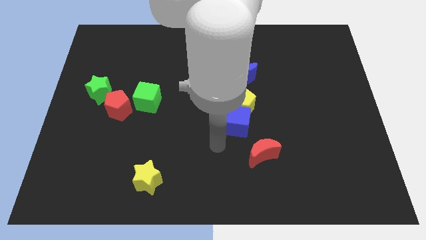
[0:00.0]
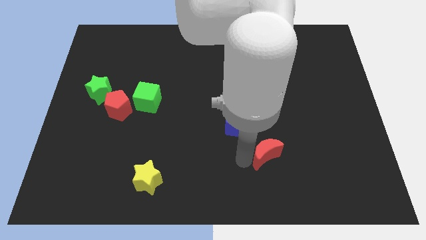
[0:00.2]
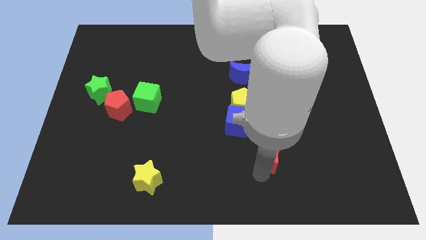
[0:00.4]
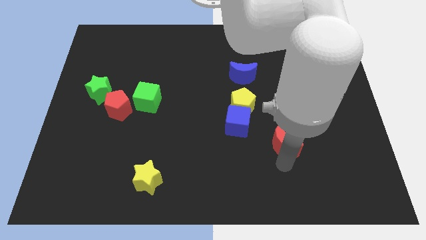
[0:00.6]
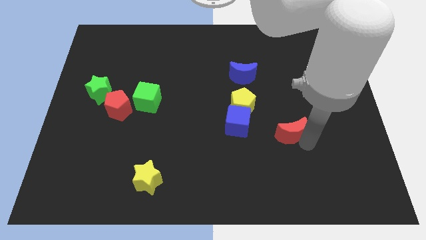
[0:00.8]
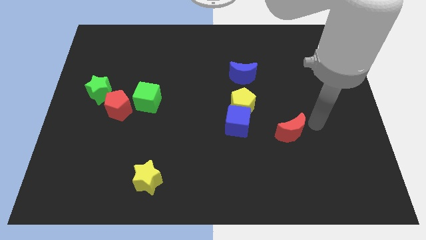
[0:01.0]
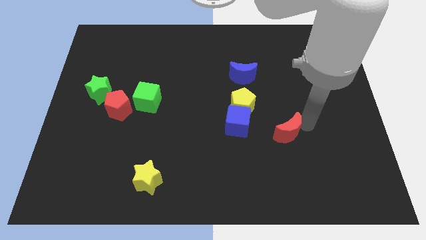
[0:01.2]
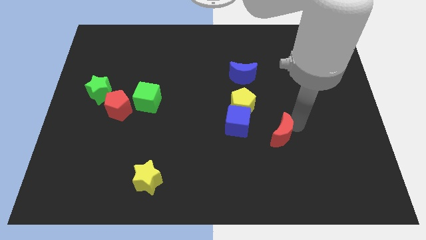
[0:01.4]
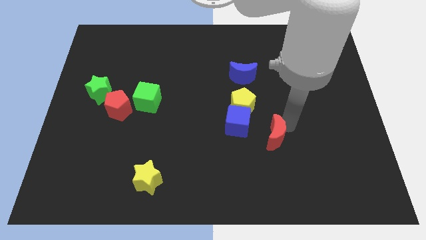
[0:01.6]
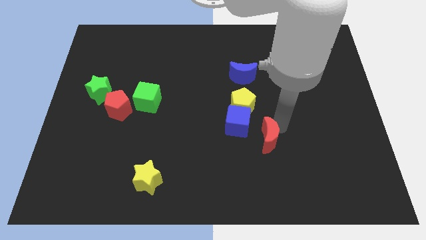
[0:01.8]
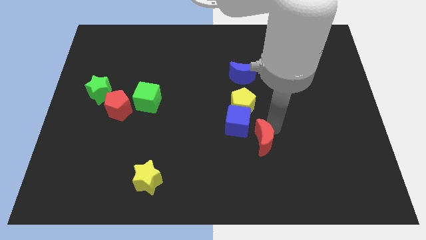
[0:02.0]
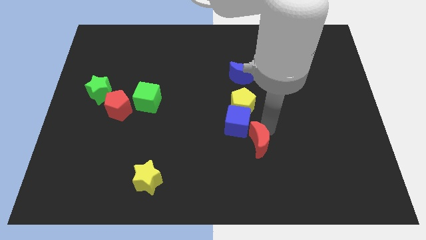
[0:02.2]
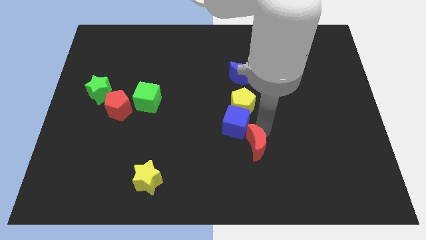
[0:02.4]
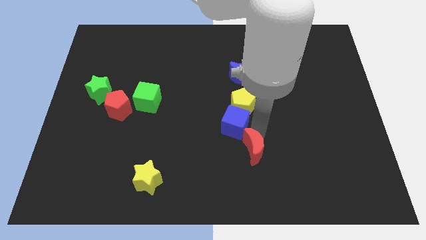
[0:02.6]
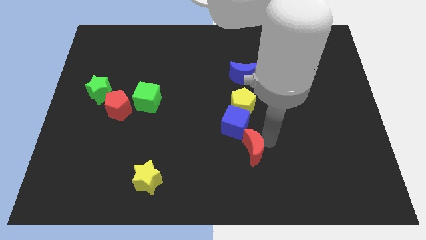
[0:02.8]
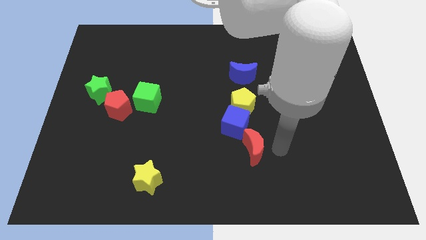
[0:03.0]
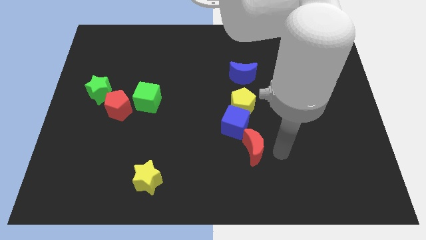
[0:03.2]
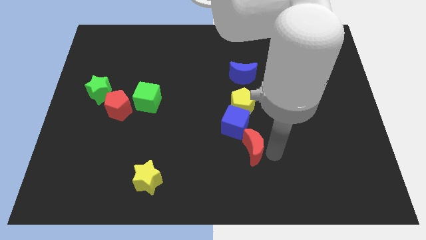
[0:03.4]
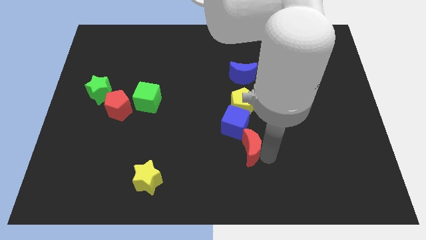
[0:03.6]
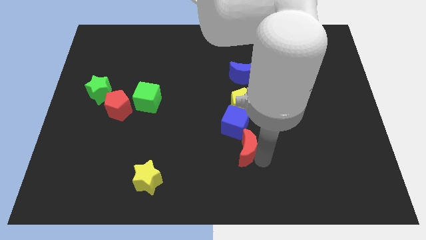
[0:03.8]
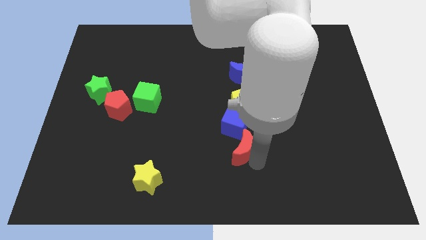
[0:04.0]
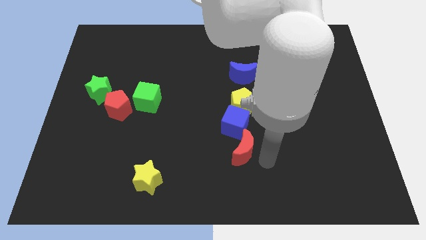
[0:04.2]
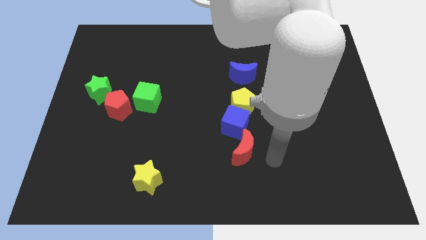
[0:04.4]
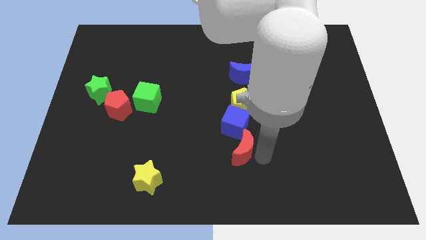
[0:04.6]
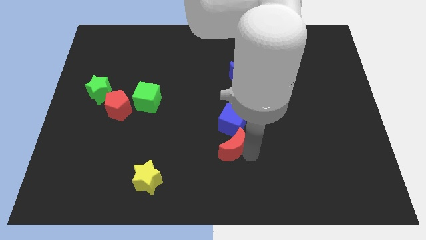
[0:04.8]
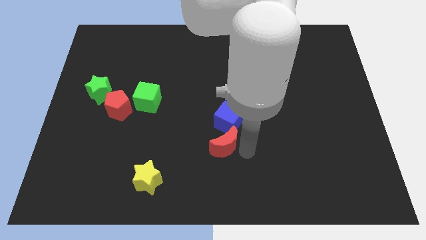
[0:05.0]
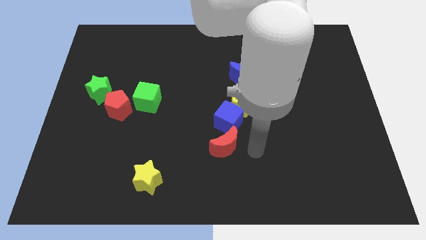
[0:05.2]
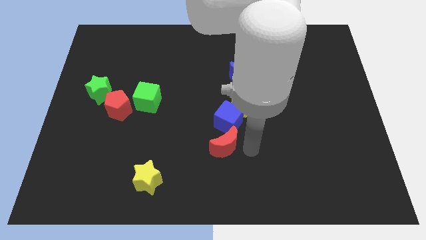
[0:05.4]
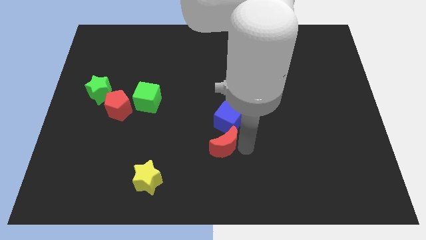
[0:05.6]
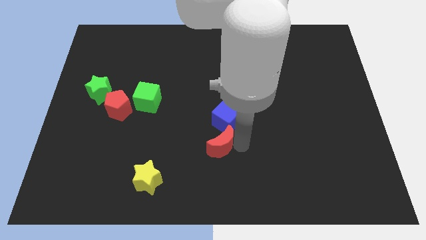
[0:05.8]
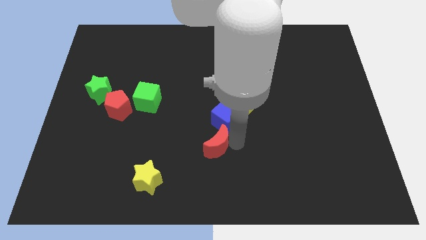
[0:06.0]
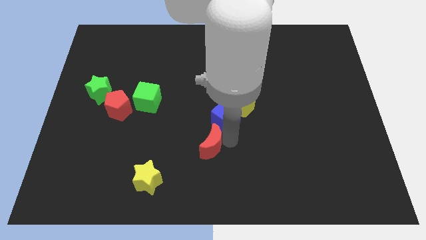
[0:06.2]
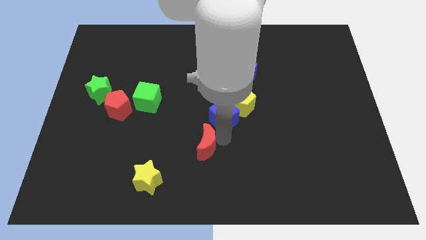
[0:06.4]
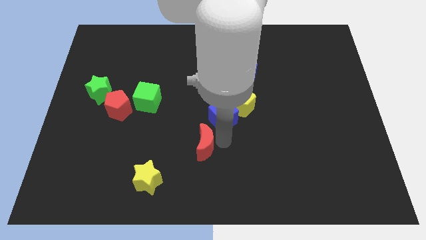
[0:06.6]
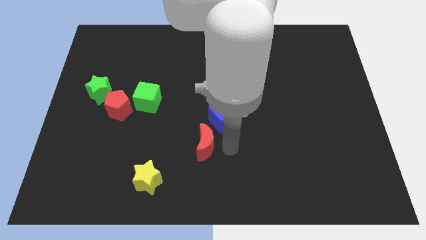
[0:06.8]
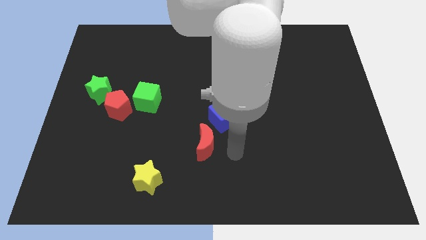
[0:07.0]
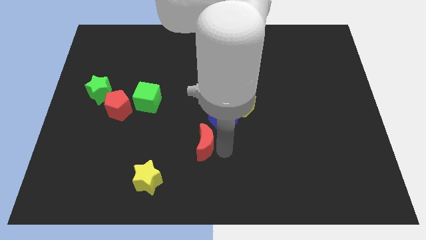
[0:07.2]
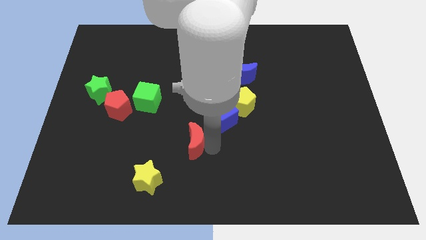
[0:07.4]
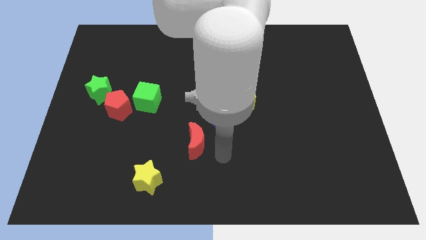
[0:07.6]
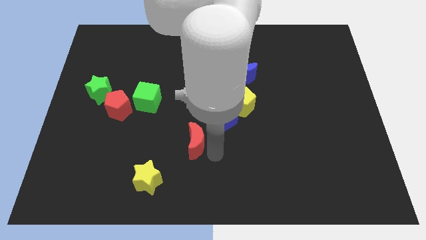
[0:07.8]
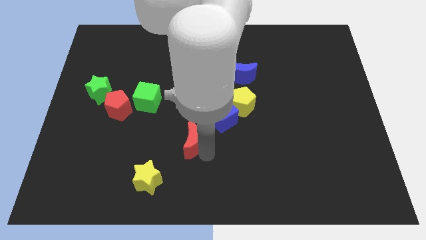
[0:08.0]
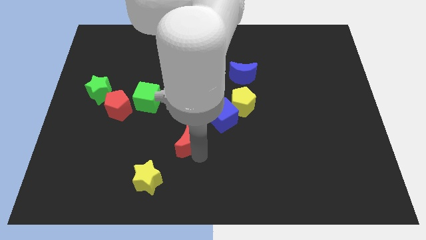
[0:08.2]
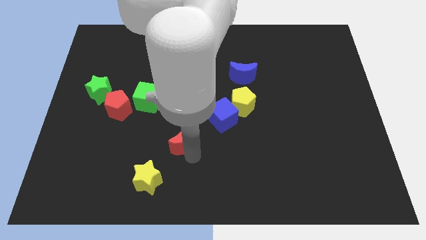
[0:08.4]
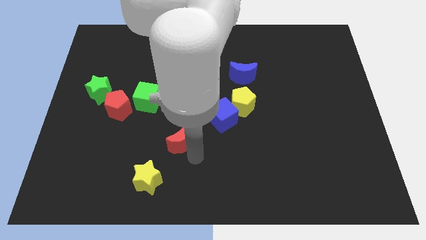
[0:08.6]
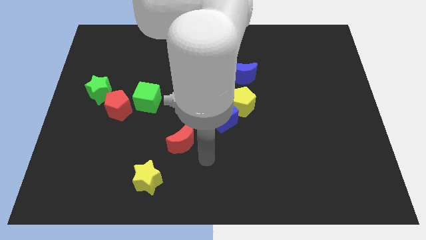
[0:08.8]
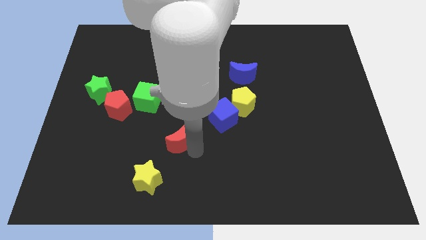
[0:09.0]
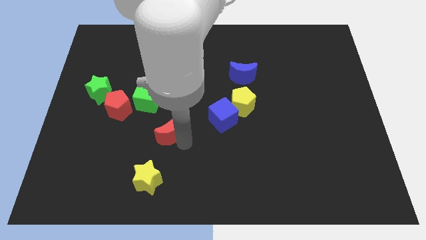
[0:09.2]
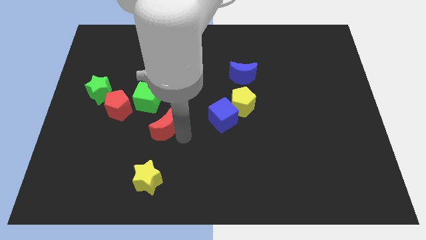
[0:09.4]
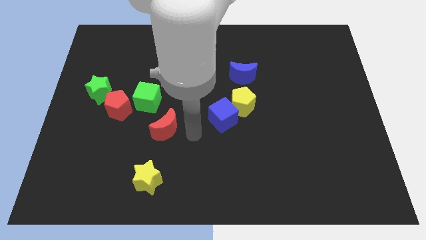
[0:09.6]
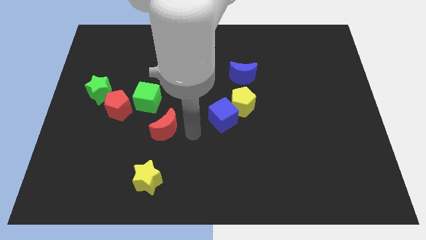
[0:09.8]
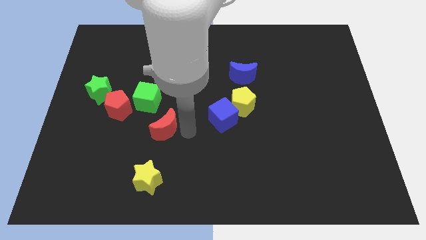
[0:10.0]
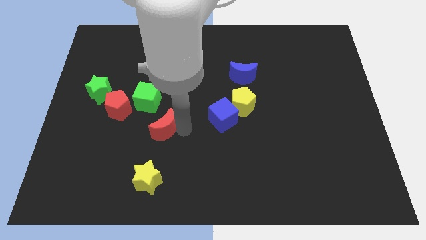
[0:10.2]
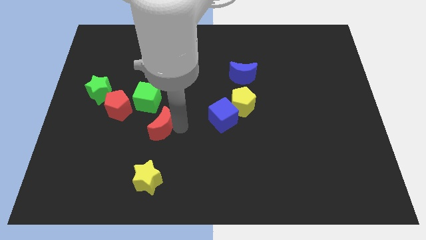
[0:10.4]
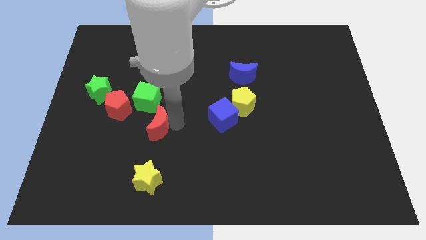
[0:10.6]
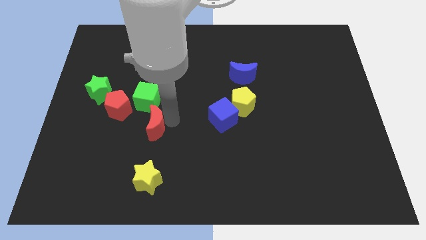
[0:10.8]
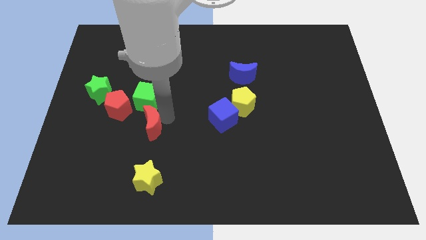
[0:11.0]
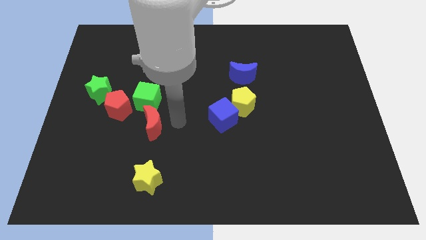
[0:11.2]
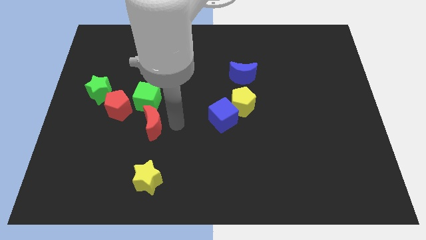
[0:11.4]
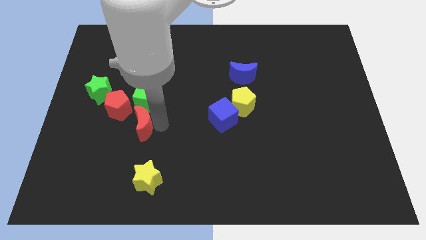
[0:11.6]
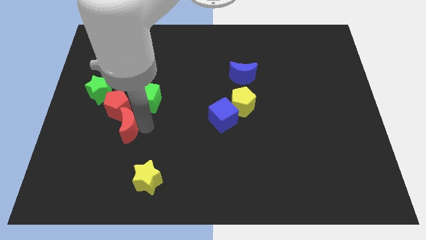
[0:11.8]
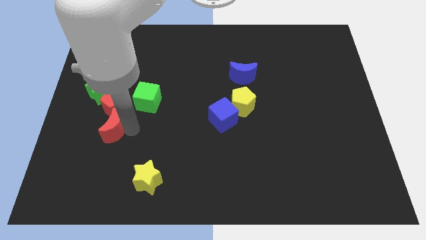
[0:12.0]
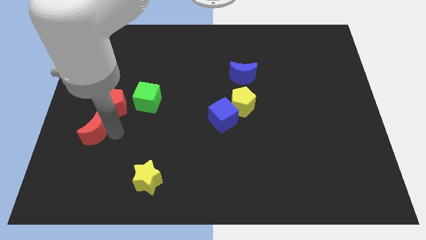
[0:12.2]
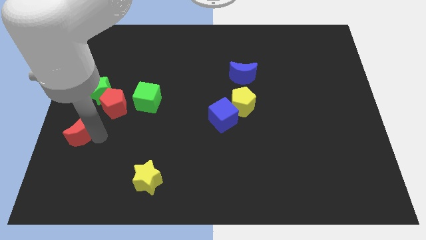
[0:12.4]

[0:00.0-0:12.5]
put the red moon to the left side
